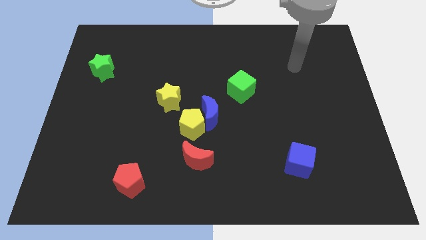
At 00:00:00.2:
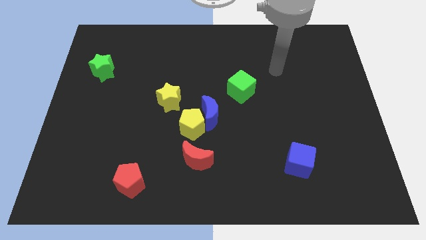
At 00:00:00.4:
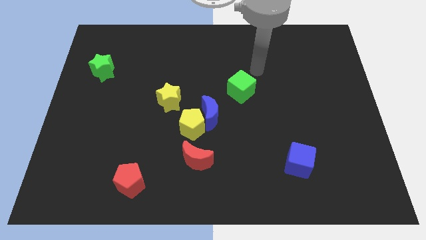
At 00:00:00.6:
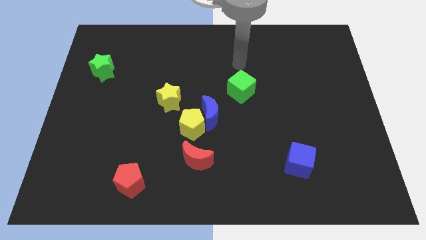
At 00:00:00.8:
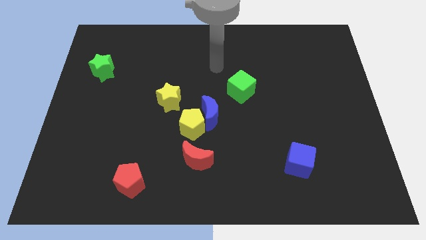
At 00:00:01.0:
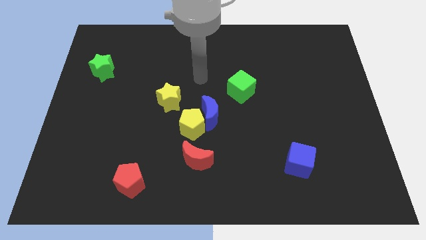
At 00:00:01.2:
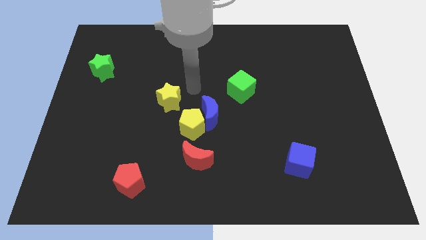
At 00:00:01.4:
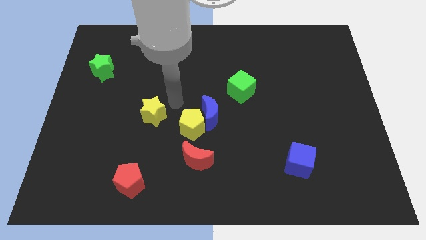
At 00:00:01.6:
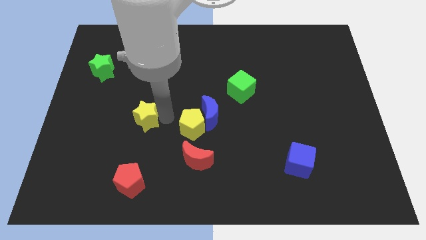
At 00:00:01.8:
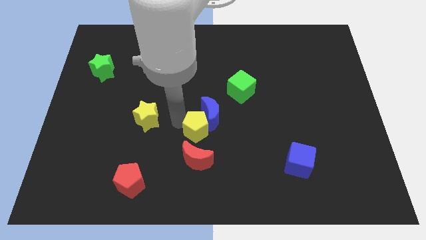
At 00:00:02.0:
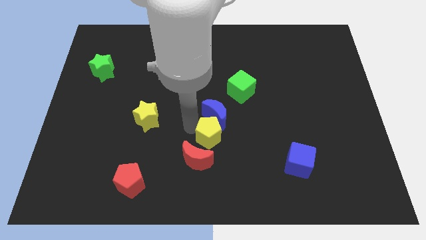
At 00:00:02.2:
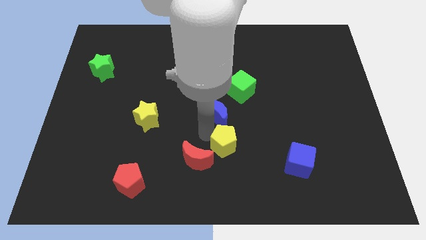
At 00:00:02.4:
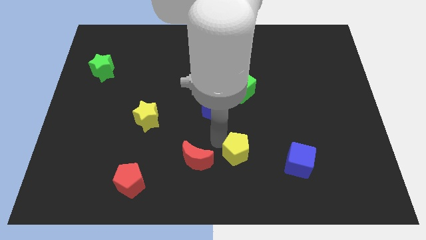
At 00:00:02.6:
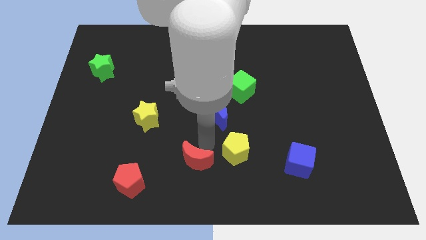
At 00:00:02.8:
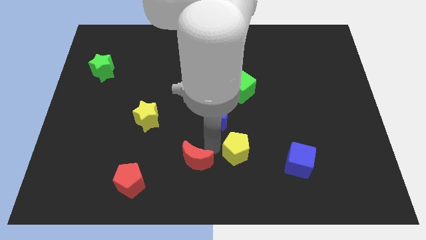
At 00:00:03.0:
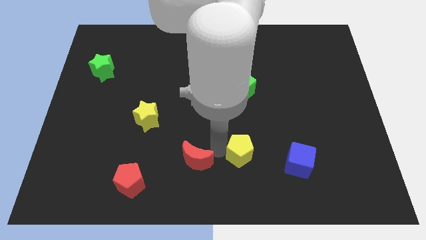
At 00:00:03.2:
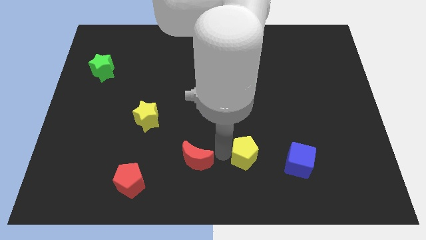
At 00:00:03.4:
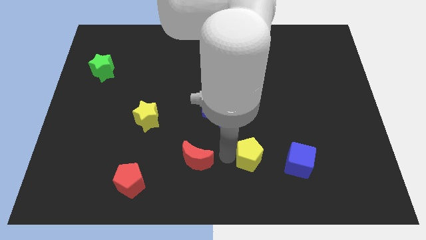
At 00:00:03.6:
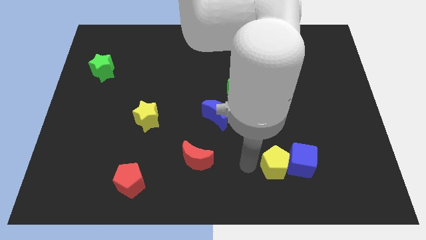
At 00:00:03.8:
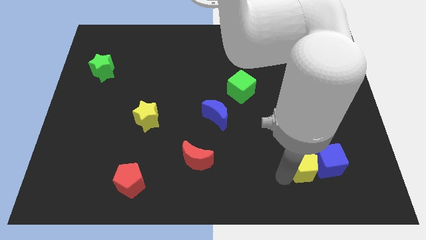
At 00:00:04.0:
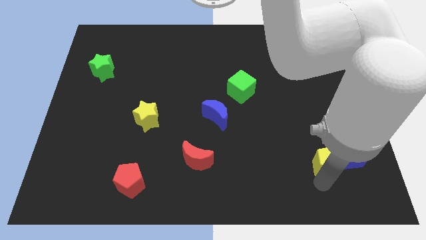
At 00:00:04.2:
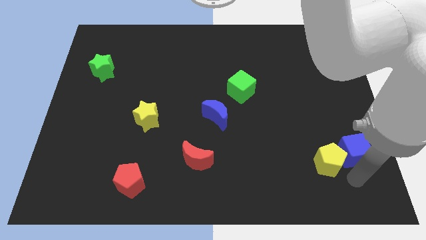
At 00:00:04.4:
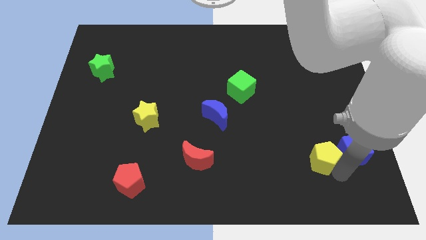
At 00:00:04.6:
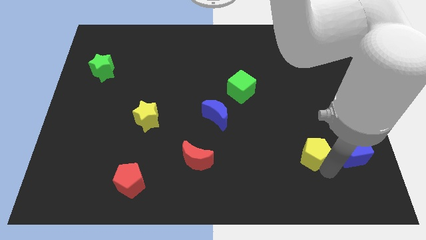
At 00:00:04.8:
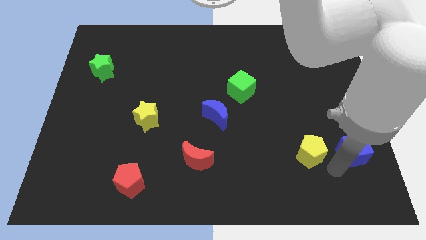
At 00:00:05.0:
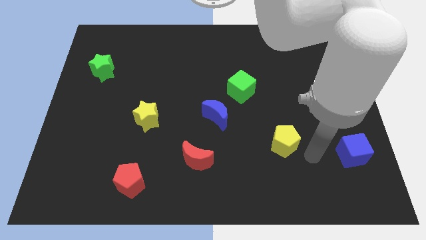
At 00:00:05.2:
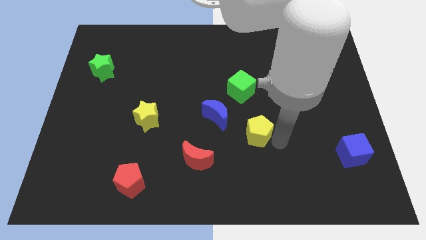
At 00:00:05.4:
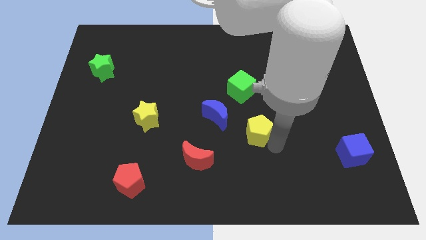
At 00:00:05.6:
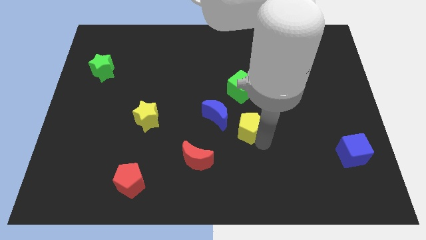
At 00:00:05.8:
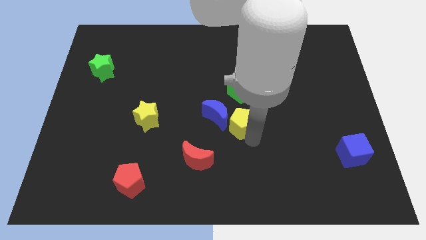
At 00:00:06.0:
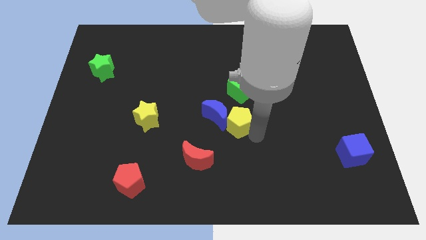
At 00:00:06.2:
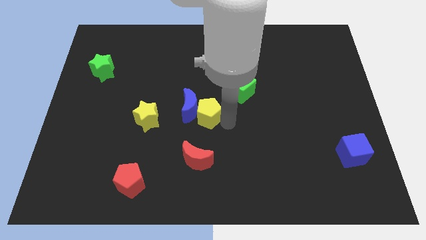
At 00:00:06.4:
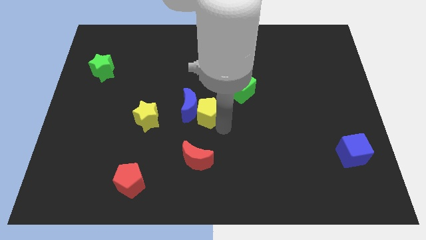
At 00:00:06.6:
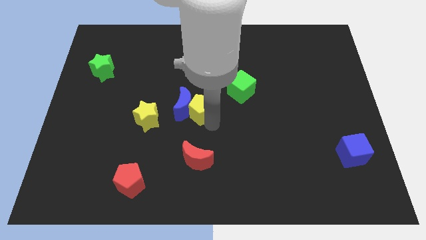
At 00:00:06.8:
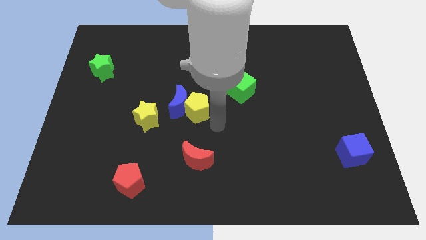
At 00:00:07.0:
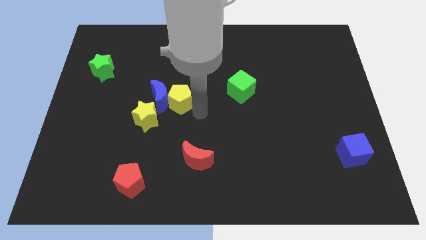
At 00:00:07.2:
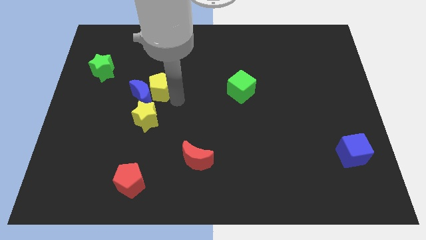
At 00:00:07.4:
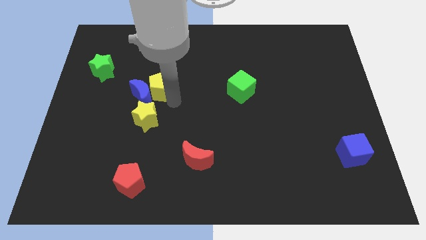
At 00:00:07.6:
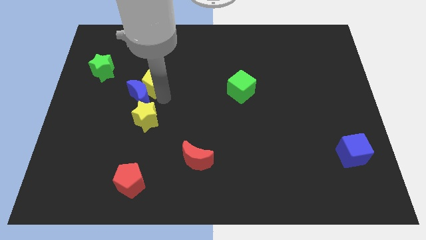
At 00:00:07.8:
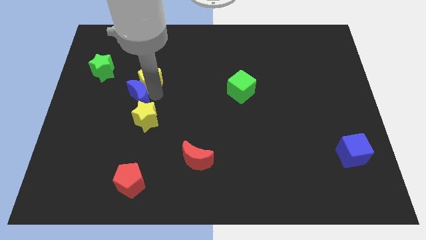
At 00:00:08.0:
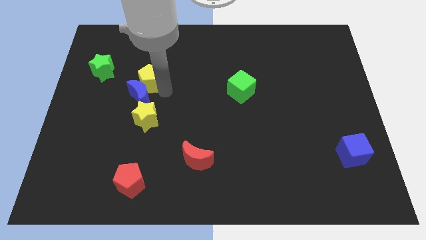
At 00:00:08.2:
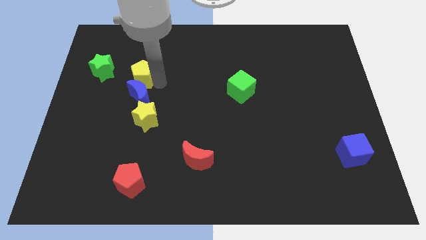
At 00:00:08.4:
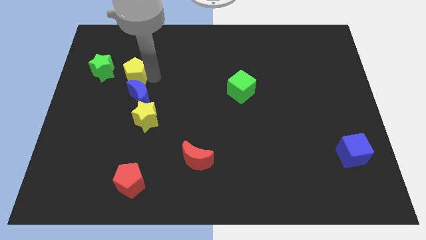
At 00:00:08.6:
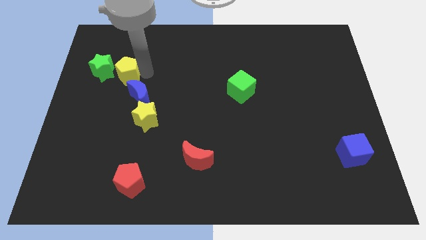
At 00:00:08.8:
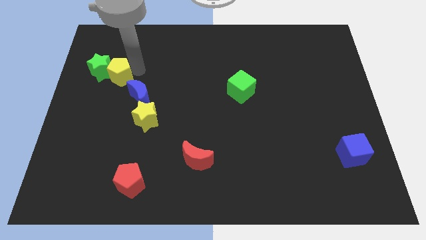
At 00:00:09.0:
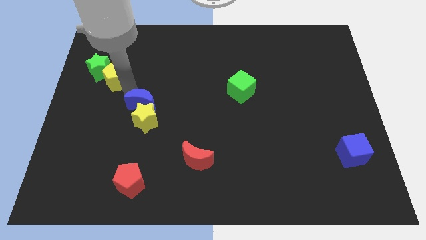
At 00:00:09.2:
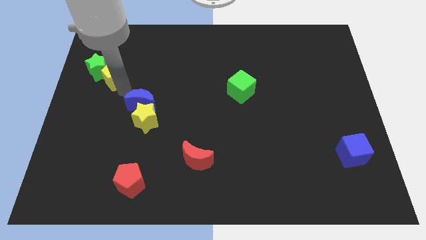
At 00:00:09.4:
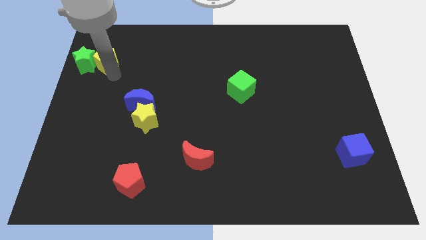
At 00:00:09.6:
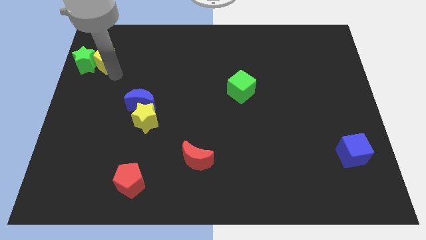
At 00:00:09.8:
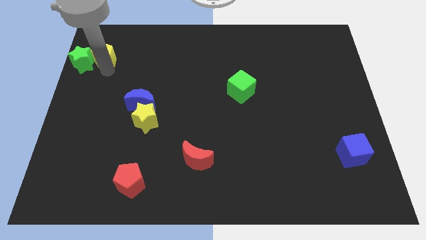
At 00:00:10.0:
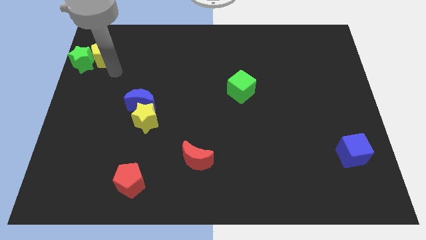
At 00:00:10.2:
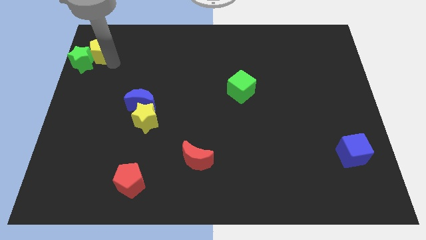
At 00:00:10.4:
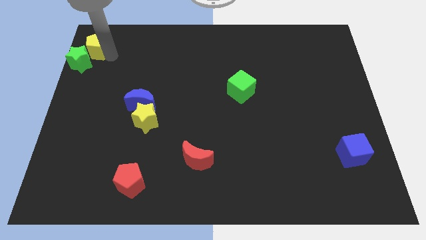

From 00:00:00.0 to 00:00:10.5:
put the yellow pentagon to the upper left corner

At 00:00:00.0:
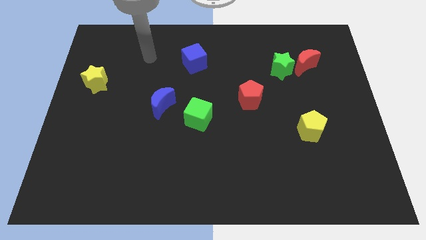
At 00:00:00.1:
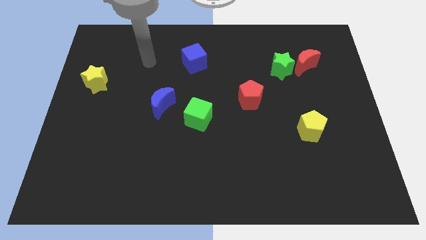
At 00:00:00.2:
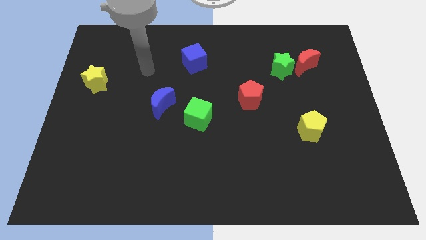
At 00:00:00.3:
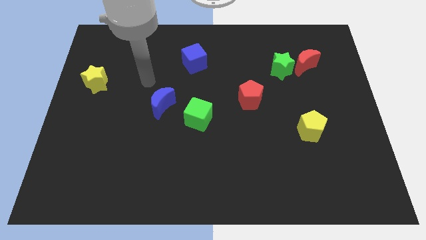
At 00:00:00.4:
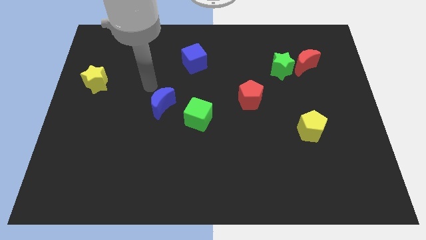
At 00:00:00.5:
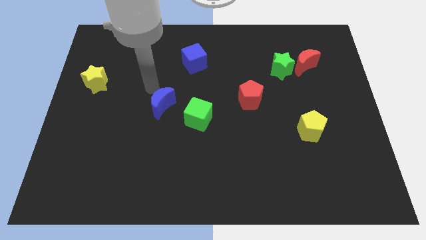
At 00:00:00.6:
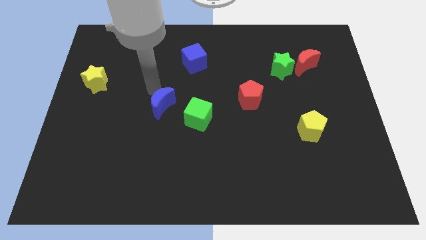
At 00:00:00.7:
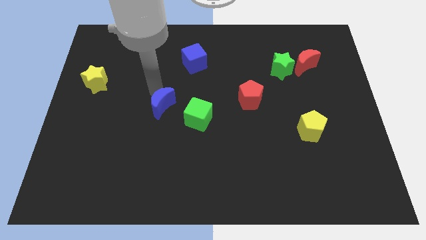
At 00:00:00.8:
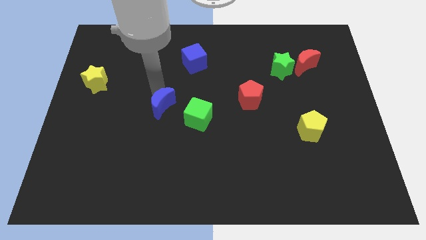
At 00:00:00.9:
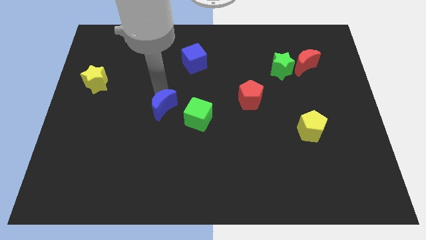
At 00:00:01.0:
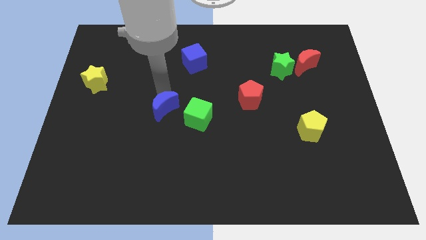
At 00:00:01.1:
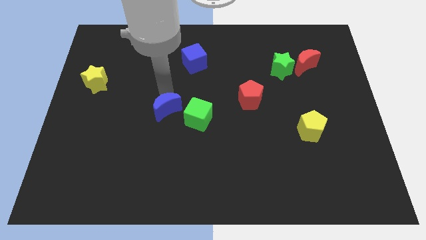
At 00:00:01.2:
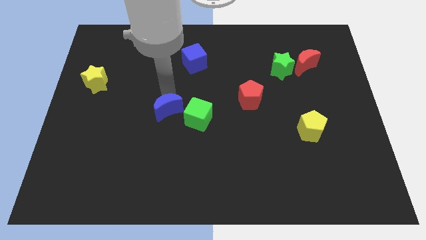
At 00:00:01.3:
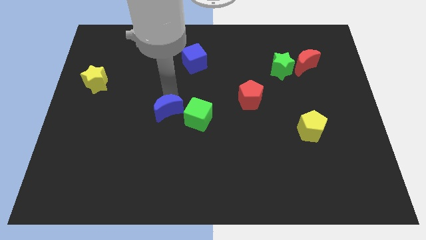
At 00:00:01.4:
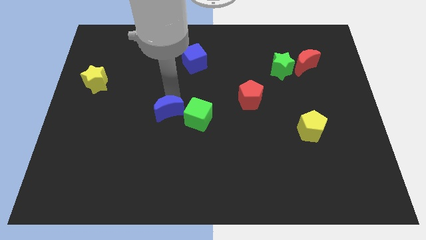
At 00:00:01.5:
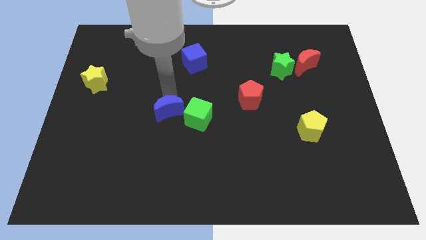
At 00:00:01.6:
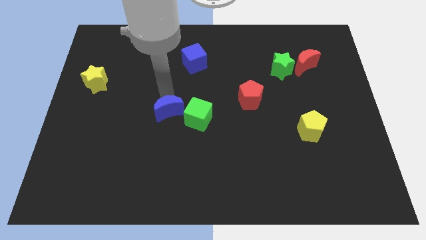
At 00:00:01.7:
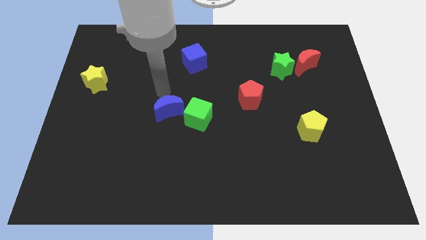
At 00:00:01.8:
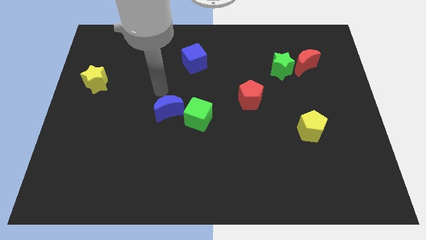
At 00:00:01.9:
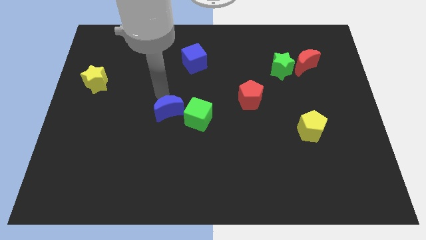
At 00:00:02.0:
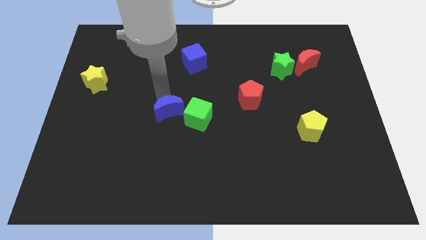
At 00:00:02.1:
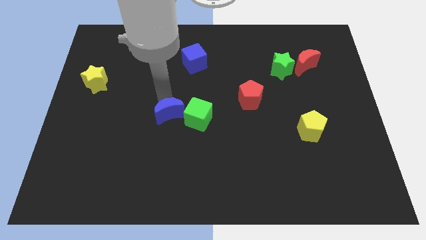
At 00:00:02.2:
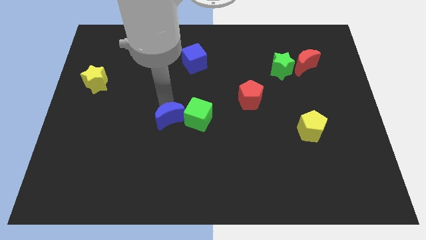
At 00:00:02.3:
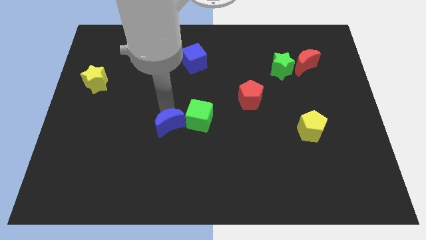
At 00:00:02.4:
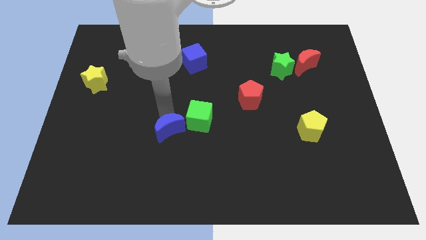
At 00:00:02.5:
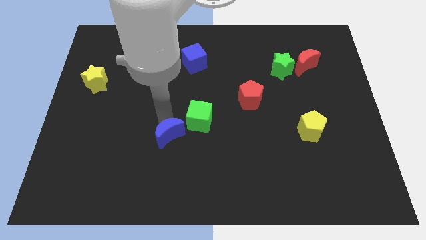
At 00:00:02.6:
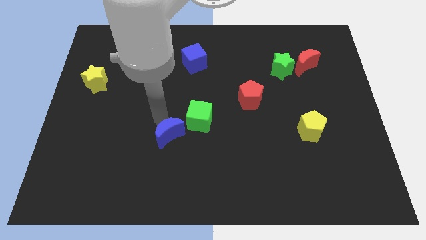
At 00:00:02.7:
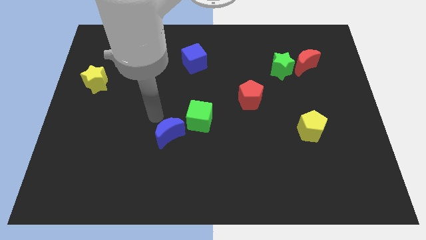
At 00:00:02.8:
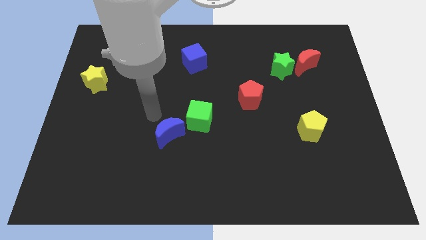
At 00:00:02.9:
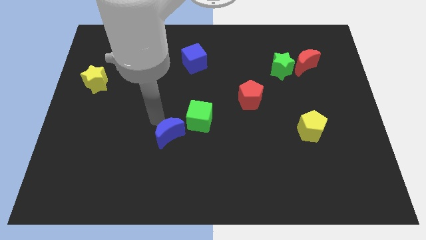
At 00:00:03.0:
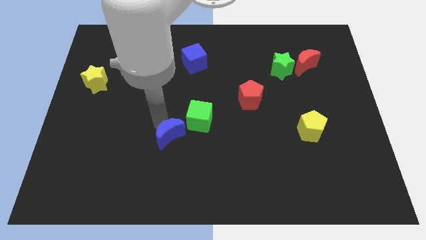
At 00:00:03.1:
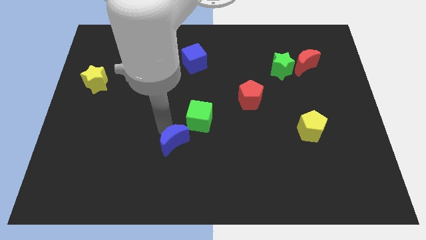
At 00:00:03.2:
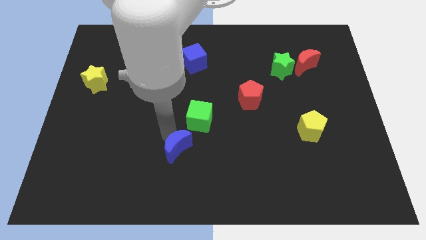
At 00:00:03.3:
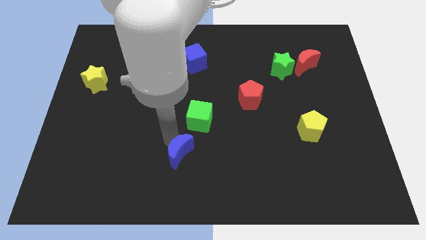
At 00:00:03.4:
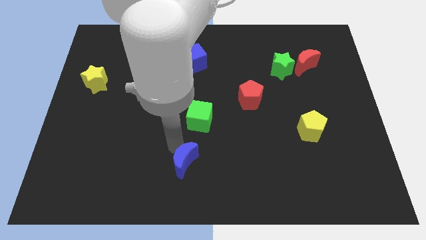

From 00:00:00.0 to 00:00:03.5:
push the blue moon to the bottom
